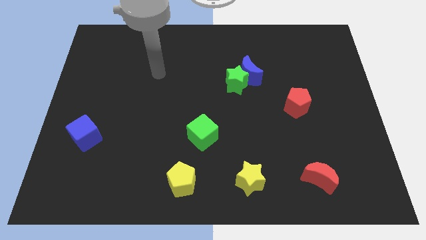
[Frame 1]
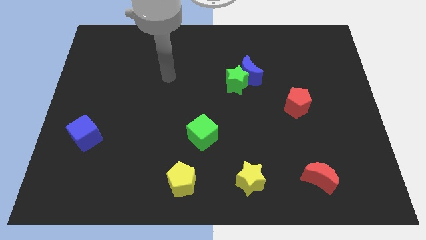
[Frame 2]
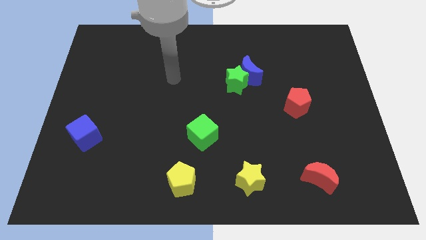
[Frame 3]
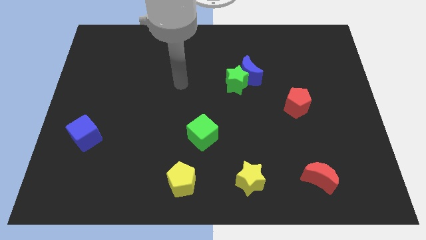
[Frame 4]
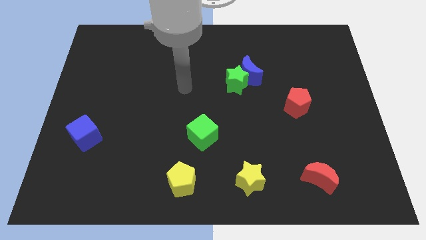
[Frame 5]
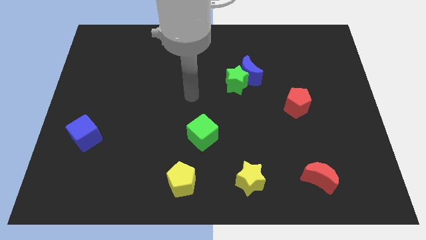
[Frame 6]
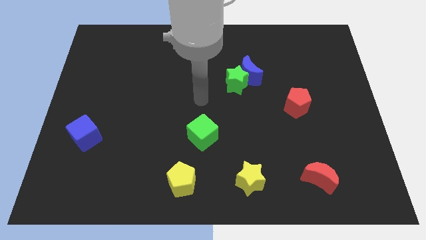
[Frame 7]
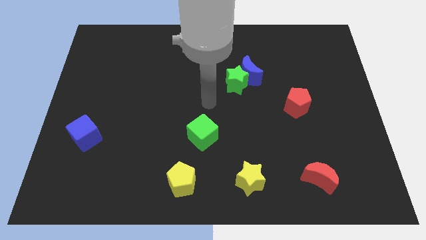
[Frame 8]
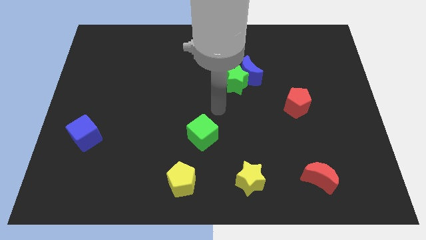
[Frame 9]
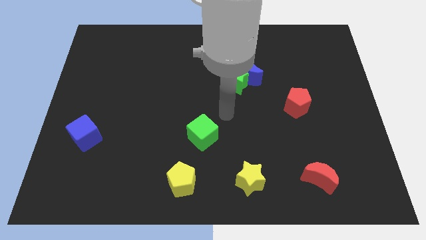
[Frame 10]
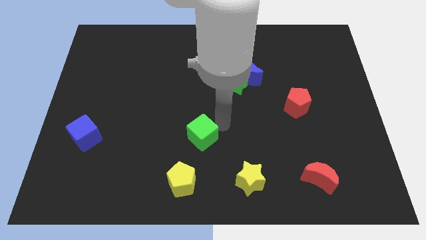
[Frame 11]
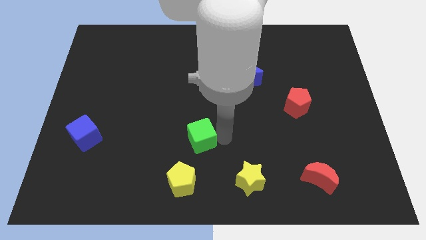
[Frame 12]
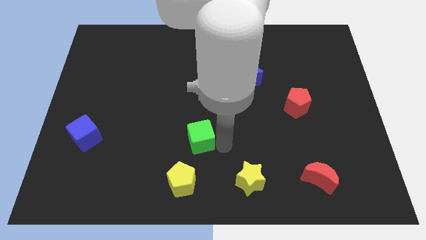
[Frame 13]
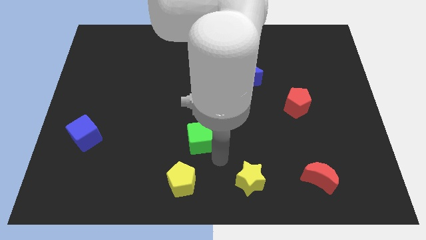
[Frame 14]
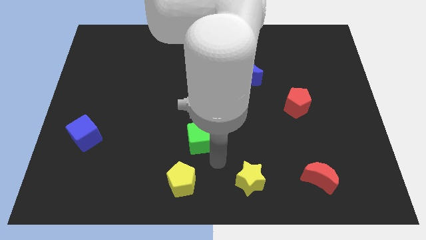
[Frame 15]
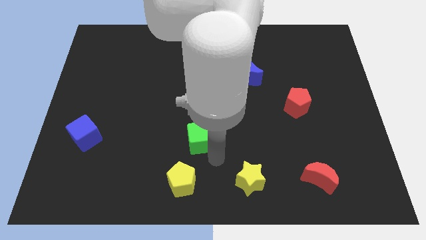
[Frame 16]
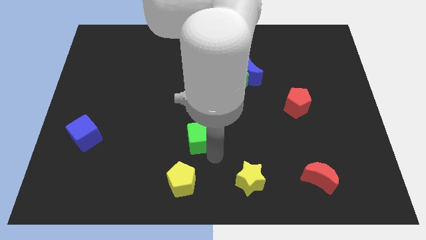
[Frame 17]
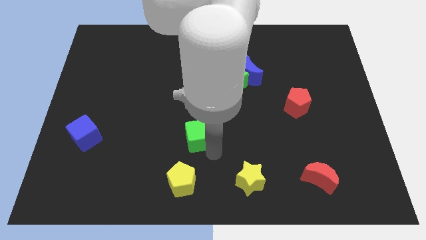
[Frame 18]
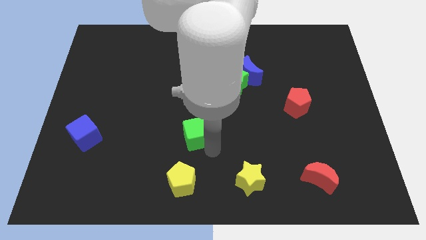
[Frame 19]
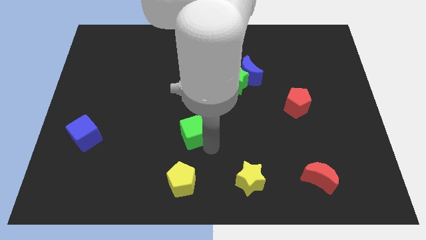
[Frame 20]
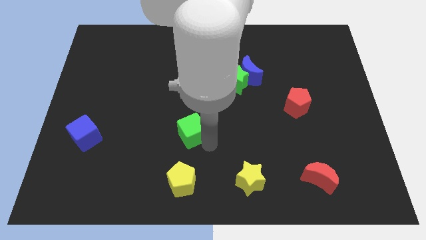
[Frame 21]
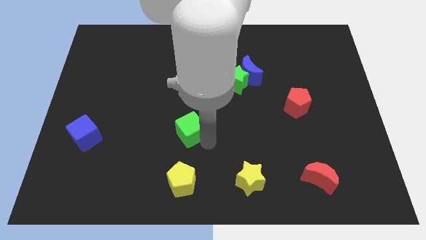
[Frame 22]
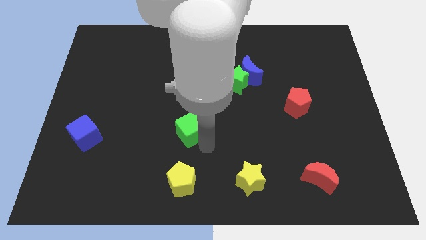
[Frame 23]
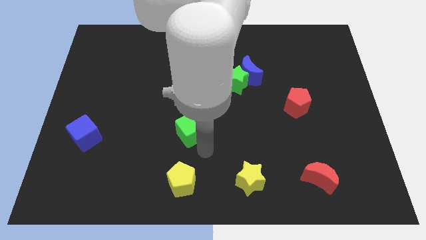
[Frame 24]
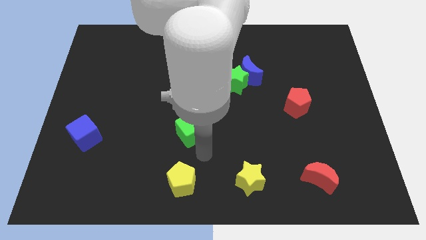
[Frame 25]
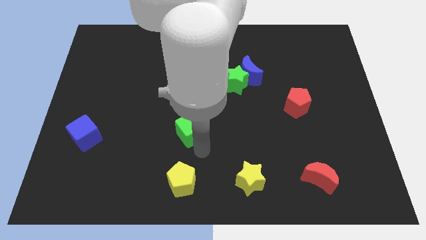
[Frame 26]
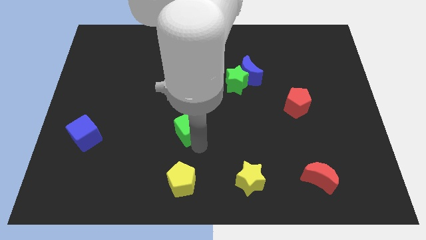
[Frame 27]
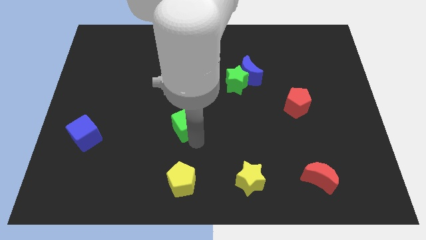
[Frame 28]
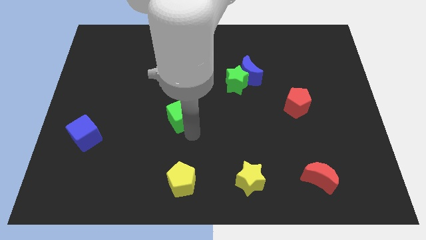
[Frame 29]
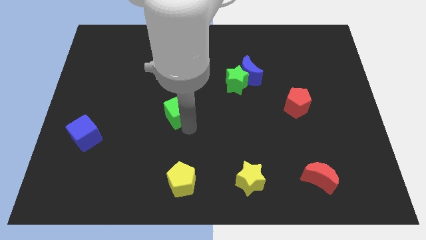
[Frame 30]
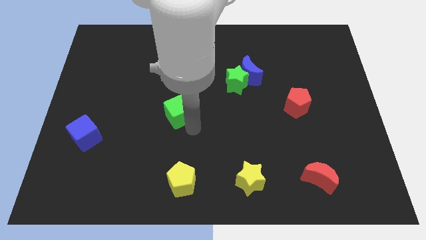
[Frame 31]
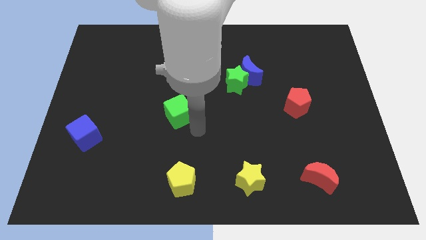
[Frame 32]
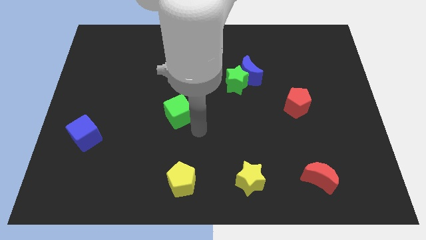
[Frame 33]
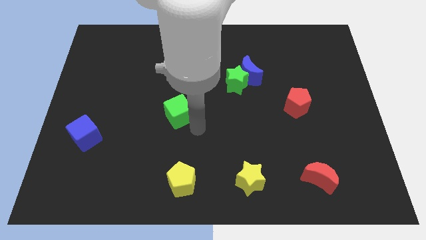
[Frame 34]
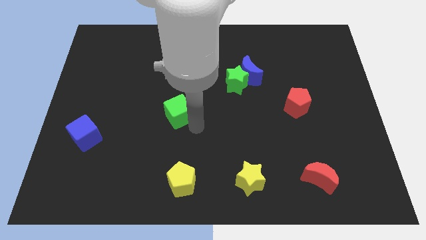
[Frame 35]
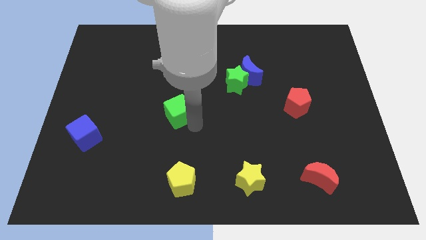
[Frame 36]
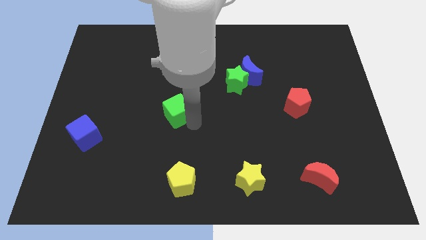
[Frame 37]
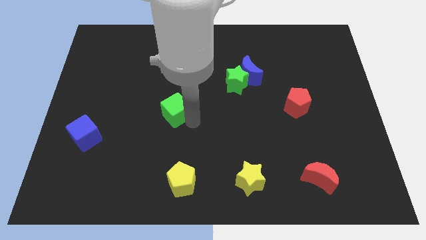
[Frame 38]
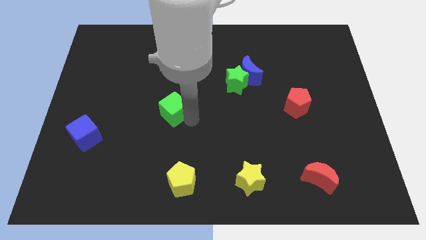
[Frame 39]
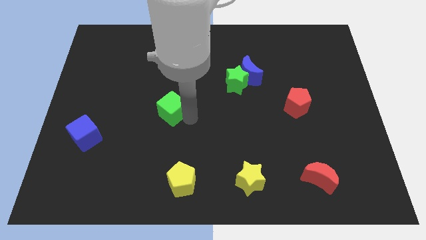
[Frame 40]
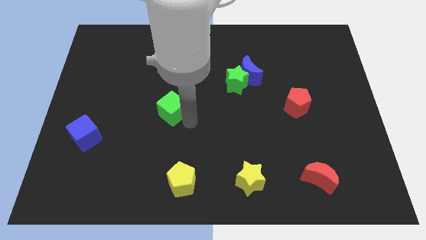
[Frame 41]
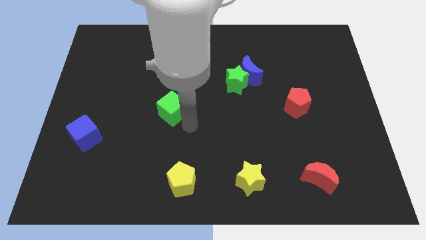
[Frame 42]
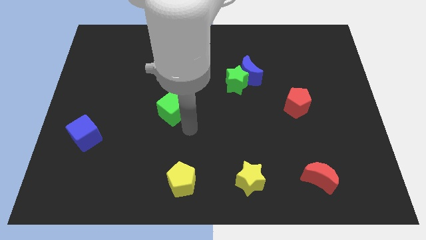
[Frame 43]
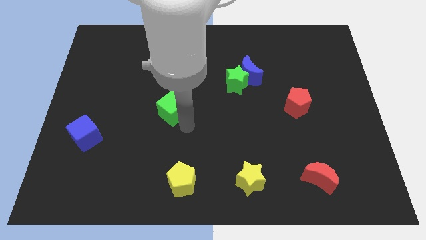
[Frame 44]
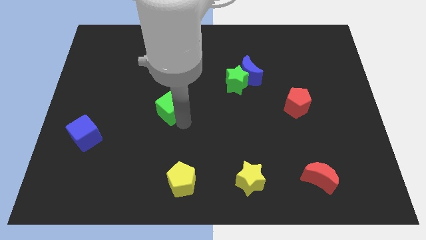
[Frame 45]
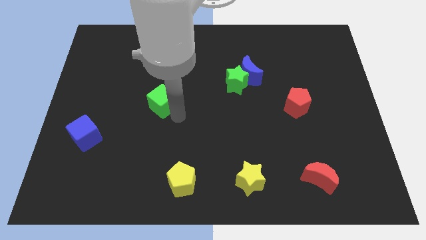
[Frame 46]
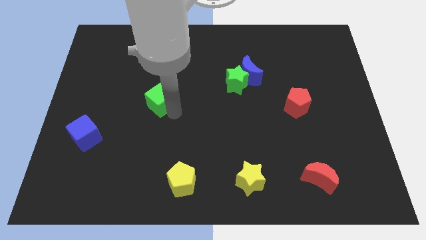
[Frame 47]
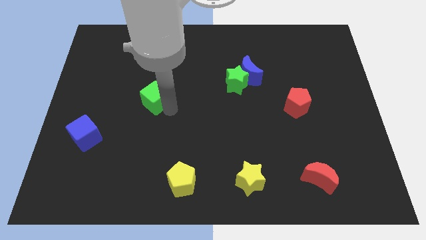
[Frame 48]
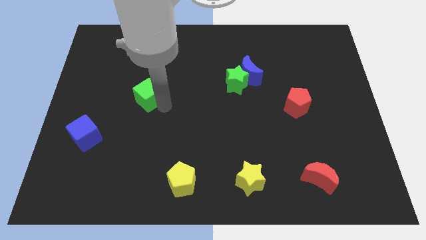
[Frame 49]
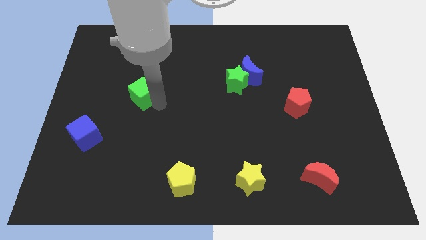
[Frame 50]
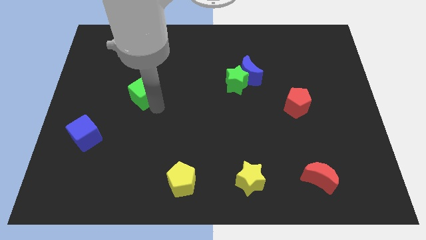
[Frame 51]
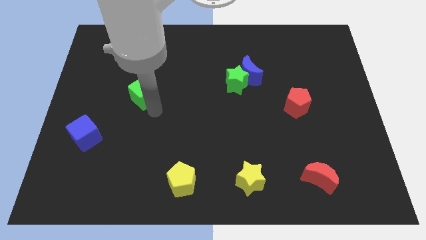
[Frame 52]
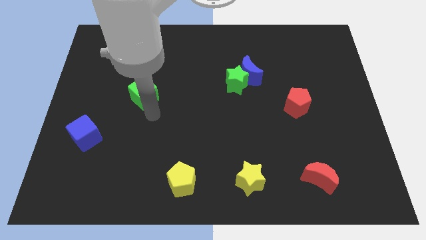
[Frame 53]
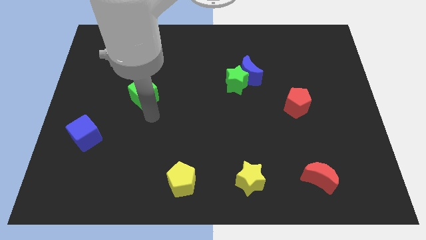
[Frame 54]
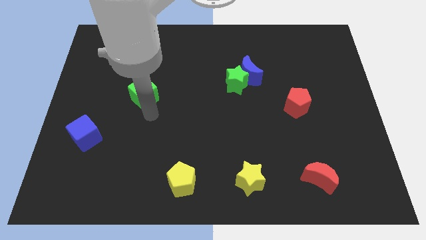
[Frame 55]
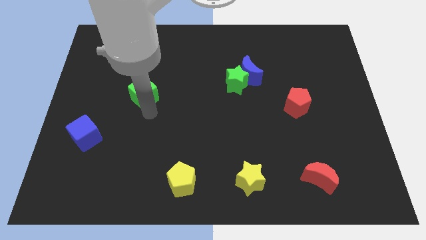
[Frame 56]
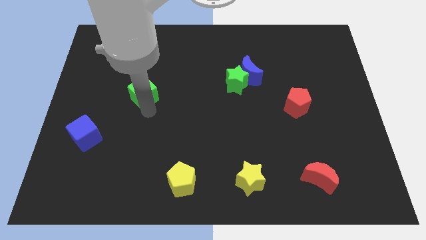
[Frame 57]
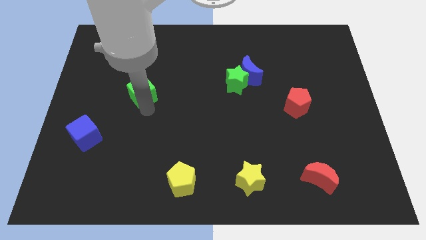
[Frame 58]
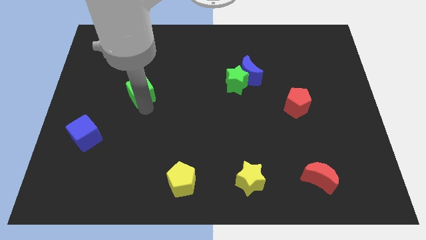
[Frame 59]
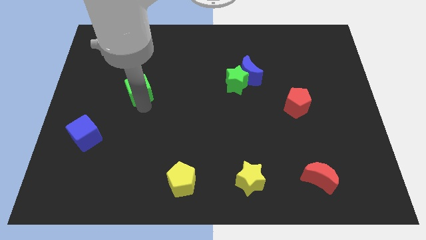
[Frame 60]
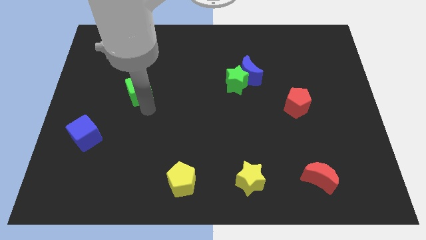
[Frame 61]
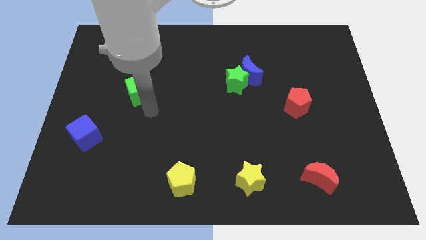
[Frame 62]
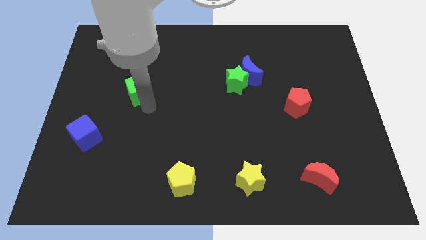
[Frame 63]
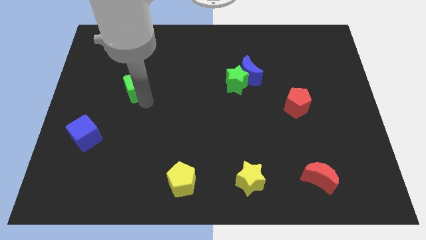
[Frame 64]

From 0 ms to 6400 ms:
push the green cube up and to the left diagonally

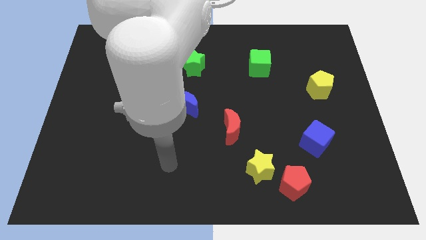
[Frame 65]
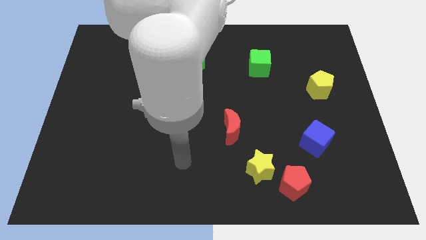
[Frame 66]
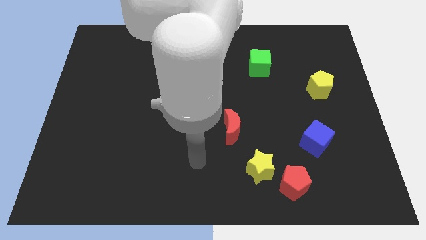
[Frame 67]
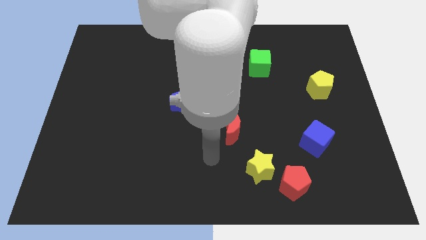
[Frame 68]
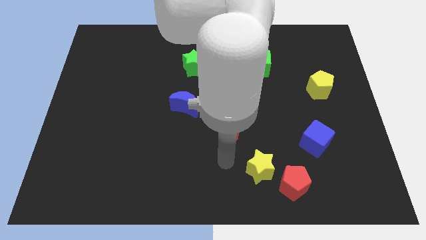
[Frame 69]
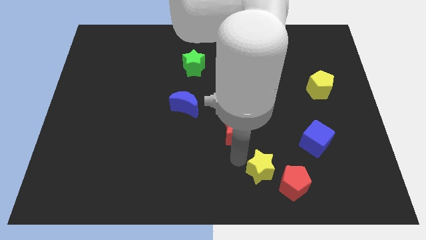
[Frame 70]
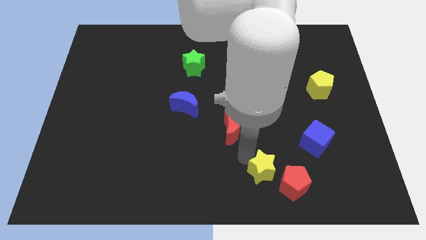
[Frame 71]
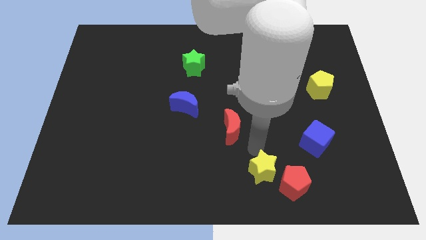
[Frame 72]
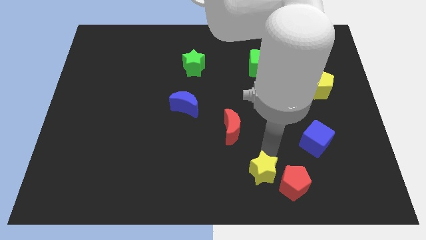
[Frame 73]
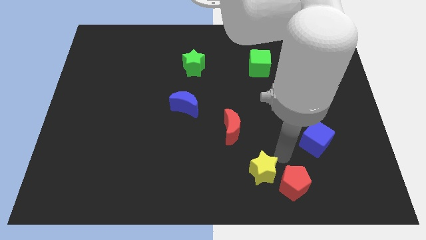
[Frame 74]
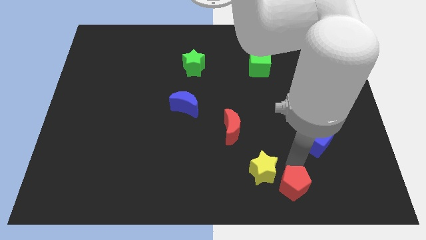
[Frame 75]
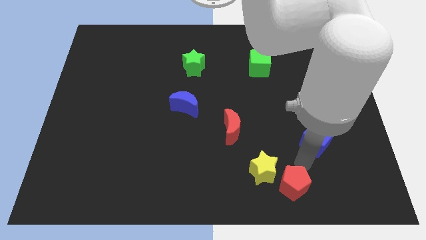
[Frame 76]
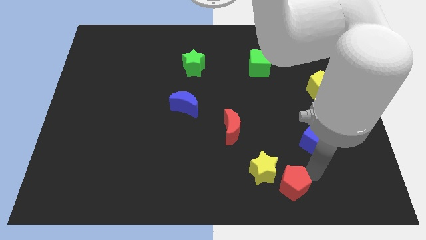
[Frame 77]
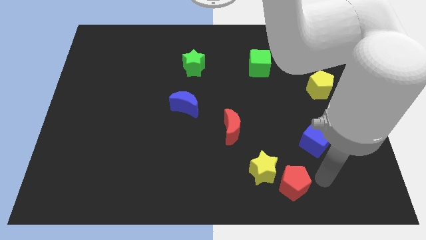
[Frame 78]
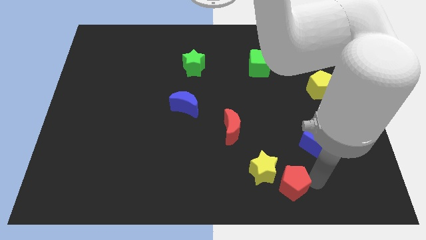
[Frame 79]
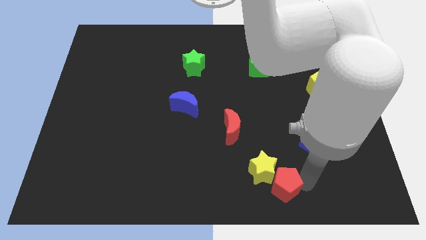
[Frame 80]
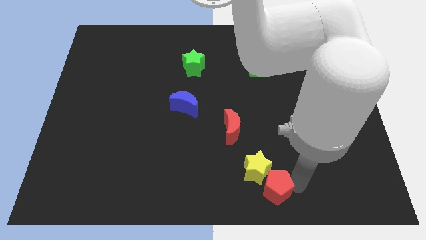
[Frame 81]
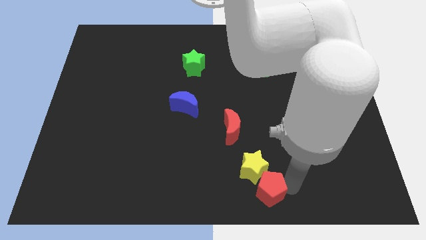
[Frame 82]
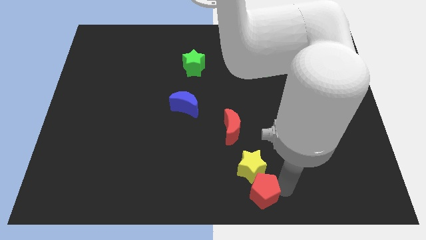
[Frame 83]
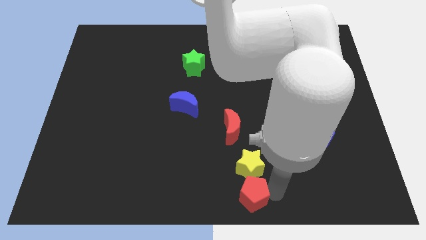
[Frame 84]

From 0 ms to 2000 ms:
slightly push the red pentagon left
